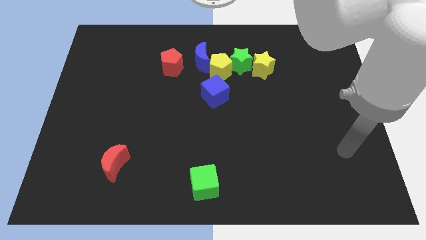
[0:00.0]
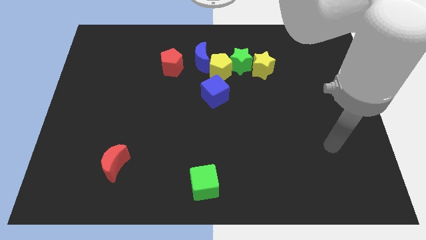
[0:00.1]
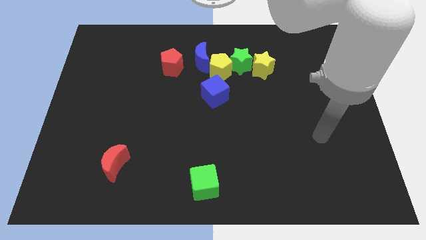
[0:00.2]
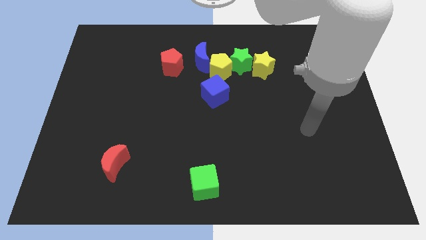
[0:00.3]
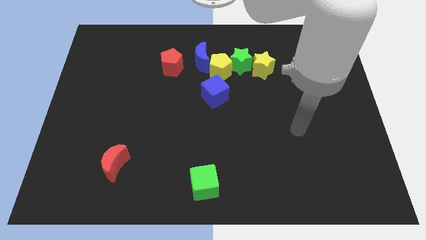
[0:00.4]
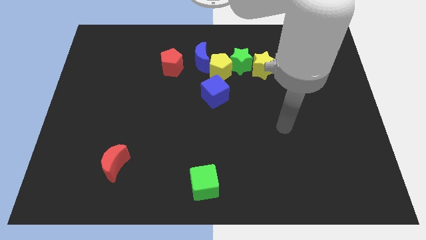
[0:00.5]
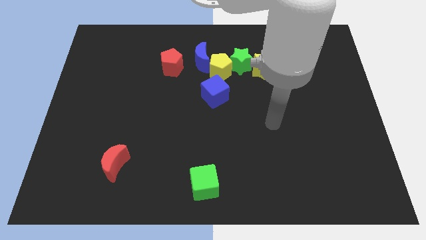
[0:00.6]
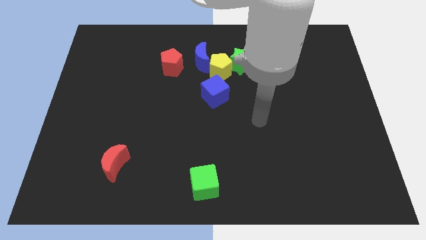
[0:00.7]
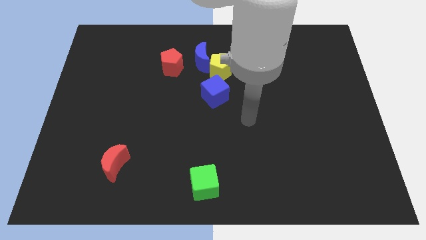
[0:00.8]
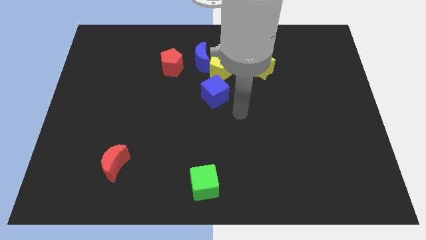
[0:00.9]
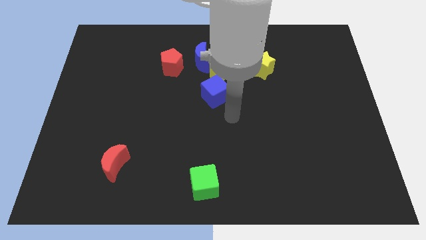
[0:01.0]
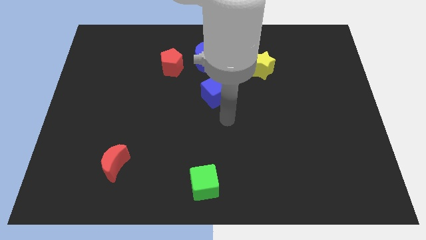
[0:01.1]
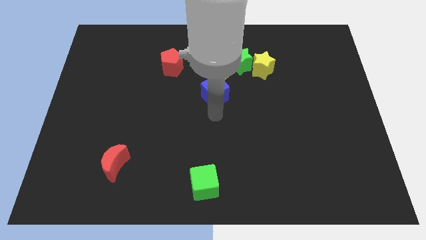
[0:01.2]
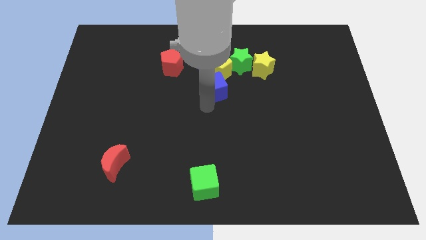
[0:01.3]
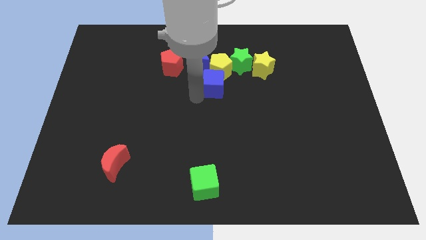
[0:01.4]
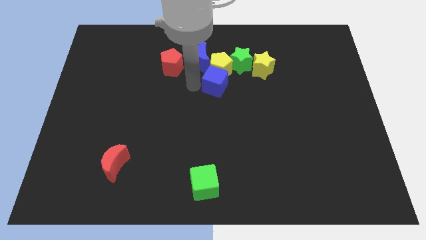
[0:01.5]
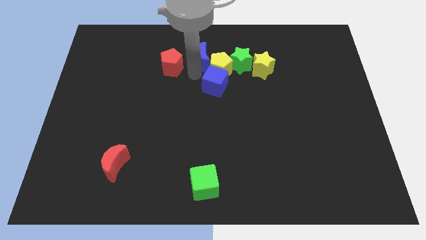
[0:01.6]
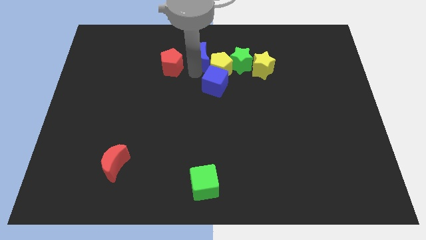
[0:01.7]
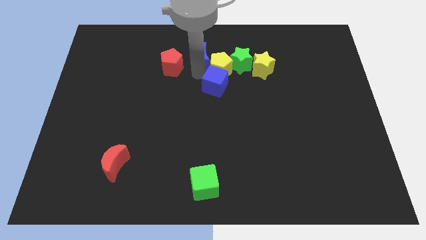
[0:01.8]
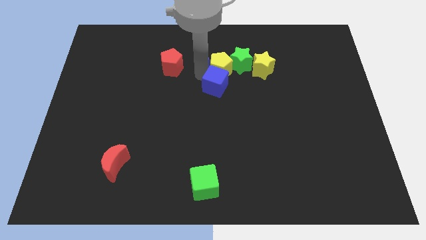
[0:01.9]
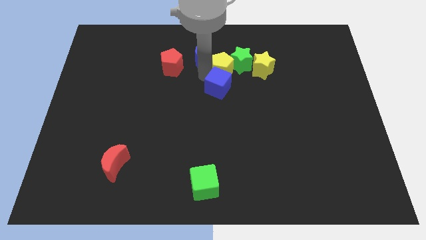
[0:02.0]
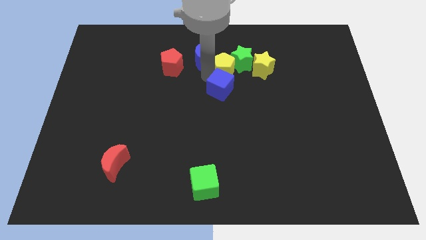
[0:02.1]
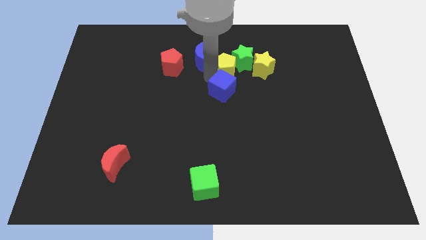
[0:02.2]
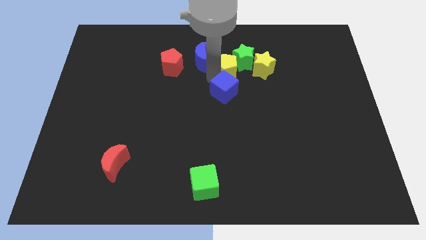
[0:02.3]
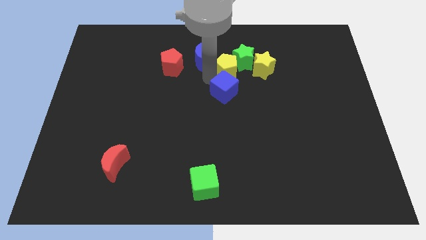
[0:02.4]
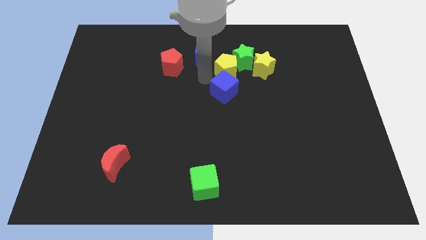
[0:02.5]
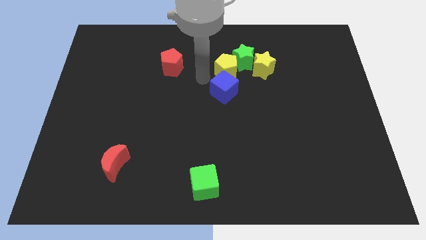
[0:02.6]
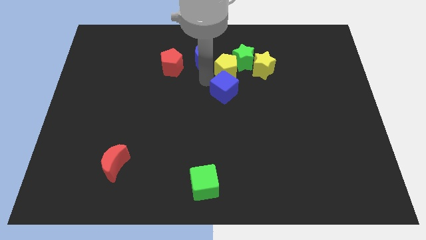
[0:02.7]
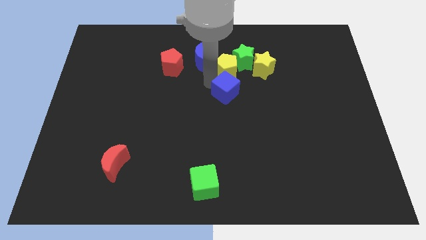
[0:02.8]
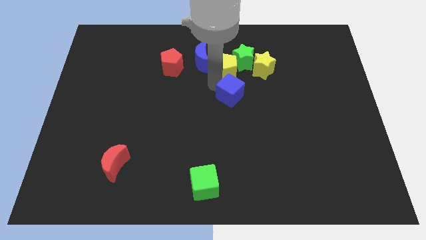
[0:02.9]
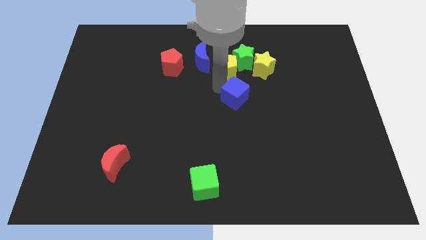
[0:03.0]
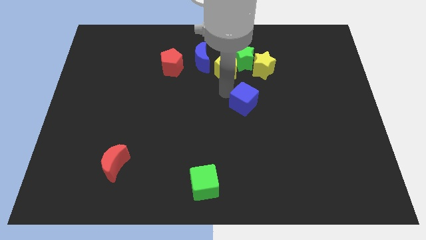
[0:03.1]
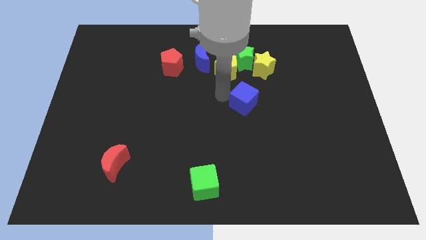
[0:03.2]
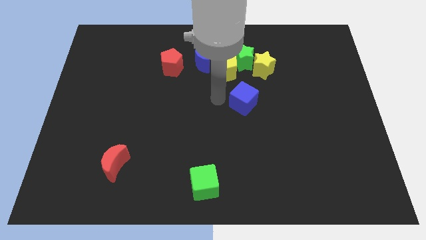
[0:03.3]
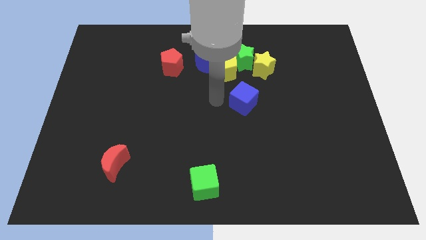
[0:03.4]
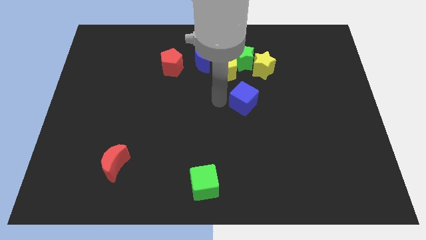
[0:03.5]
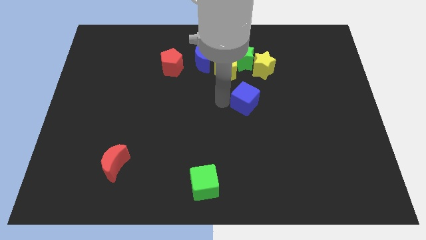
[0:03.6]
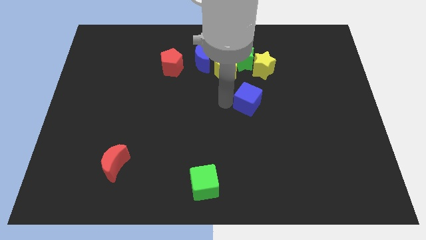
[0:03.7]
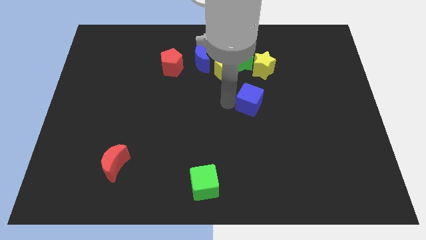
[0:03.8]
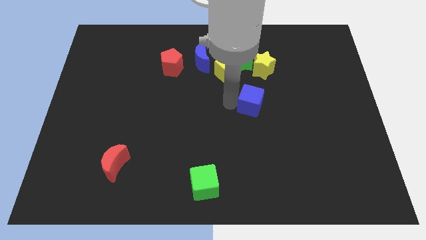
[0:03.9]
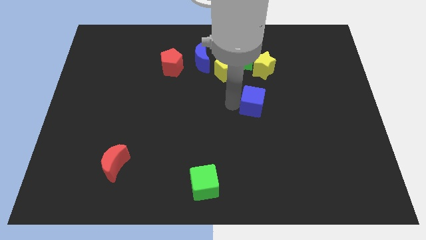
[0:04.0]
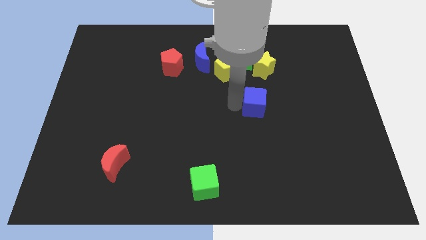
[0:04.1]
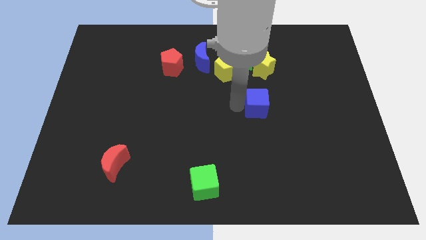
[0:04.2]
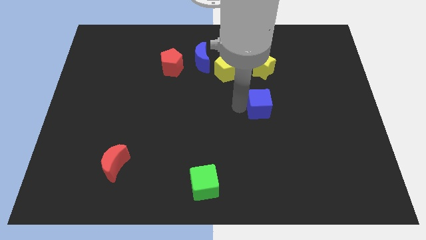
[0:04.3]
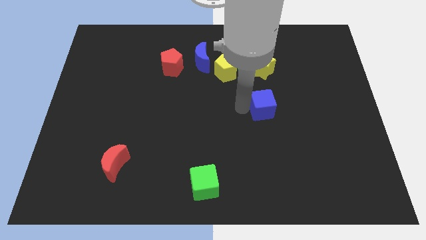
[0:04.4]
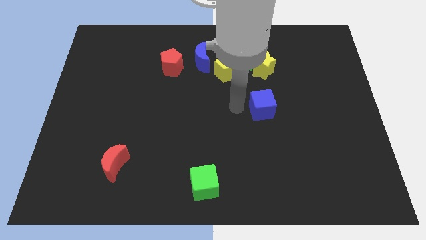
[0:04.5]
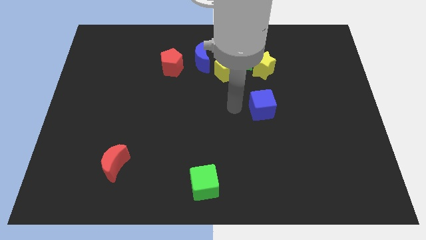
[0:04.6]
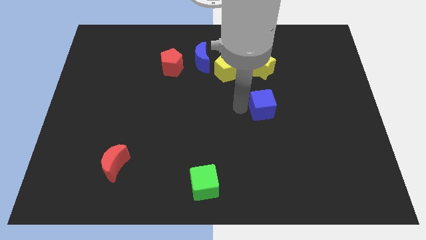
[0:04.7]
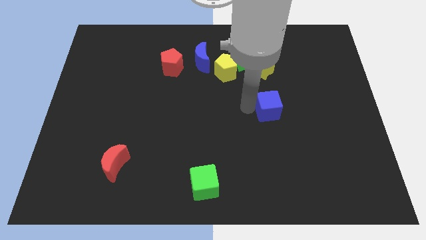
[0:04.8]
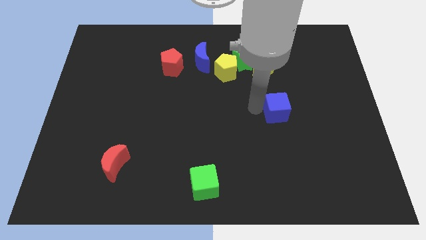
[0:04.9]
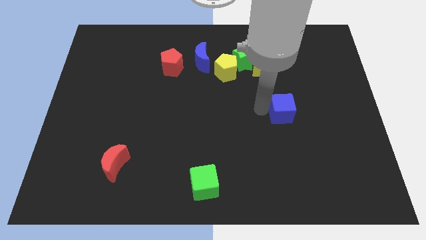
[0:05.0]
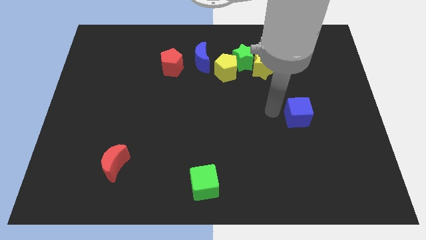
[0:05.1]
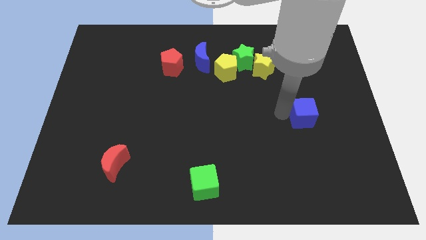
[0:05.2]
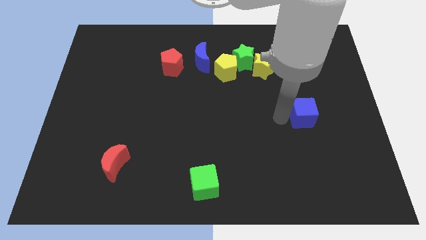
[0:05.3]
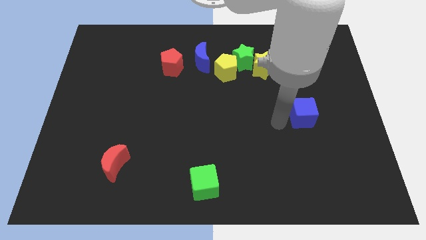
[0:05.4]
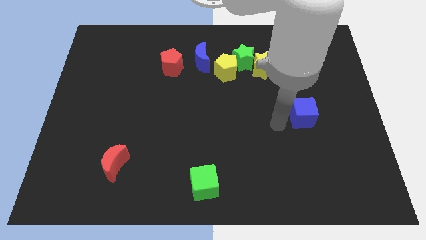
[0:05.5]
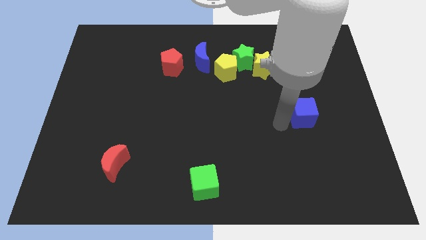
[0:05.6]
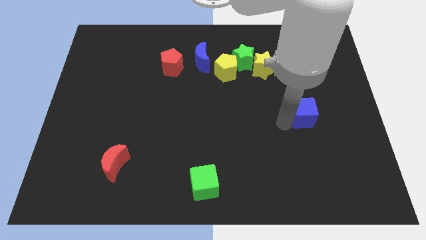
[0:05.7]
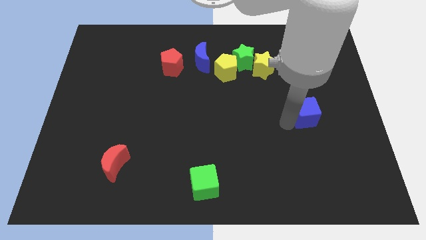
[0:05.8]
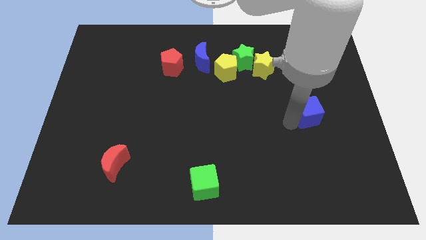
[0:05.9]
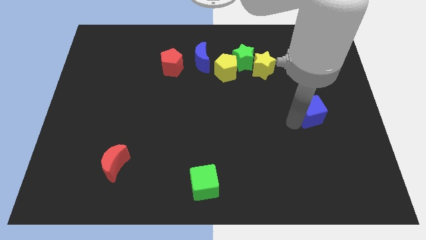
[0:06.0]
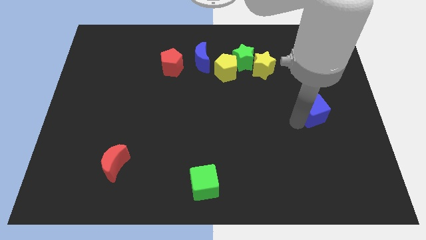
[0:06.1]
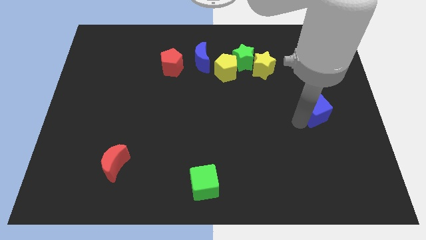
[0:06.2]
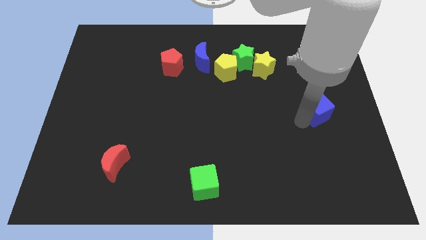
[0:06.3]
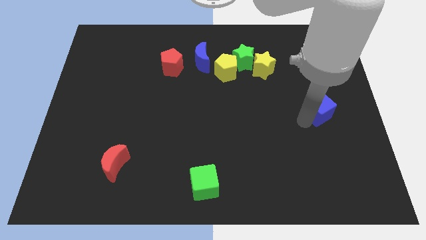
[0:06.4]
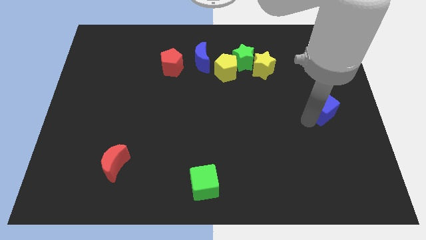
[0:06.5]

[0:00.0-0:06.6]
push the blue cube to the right side

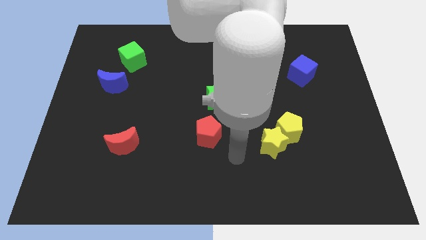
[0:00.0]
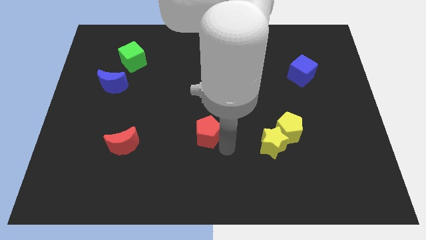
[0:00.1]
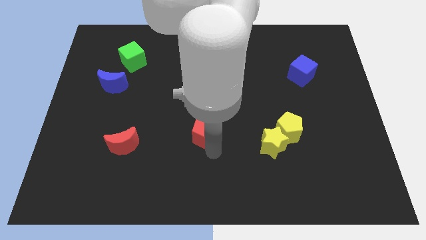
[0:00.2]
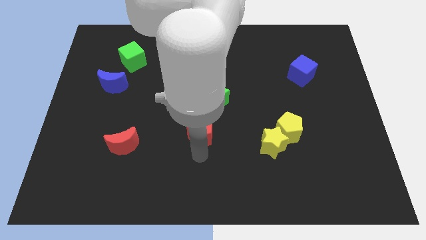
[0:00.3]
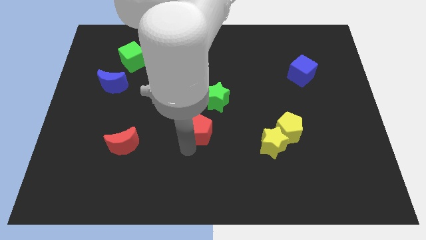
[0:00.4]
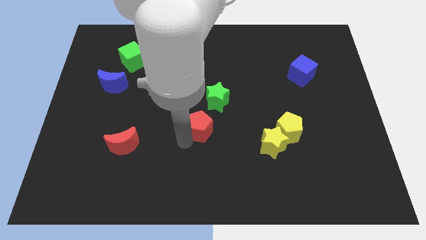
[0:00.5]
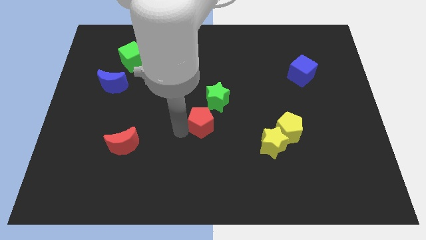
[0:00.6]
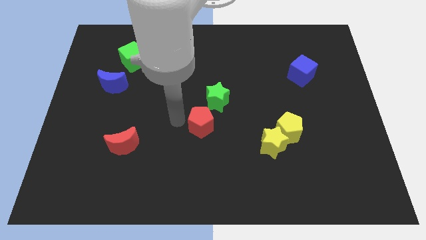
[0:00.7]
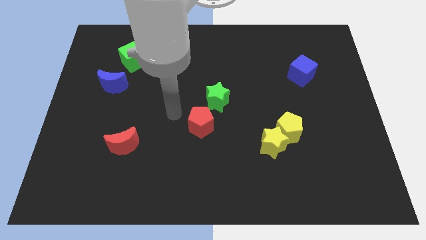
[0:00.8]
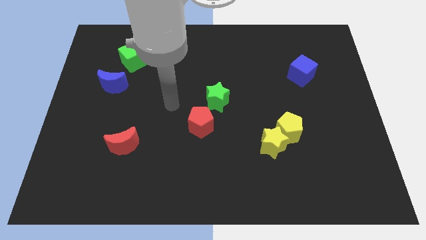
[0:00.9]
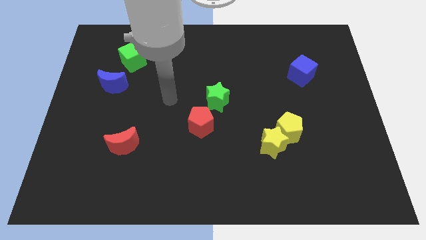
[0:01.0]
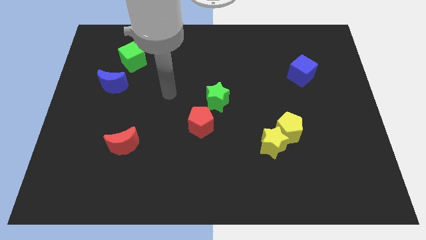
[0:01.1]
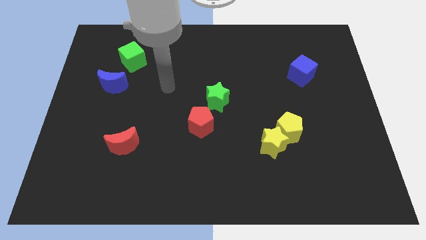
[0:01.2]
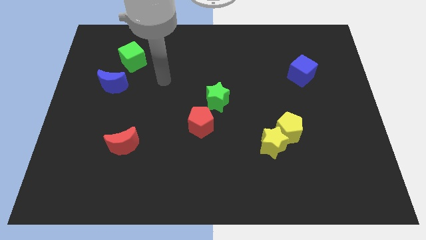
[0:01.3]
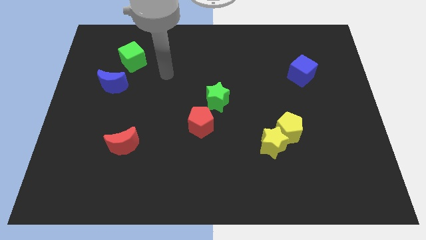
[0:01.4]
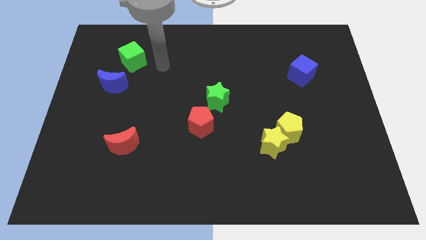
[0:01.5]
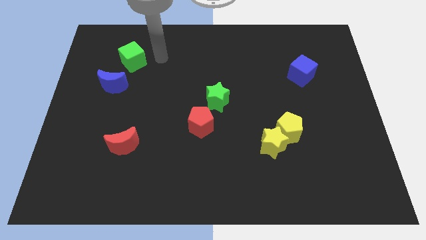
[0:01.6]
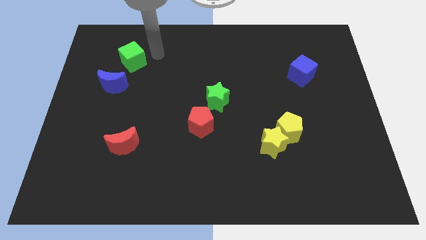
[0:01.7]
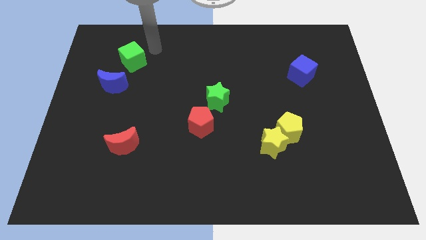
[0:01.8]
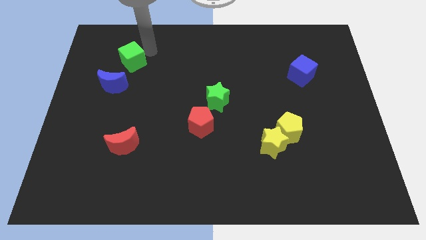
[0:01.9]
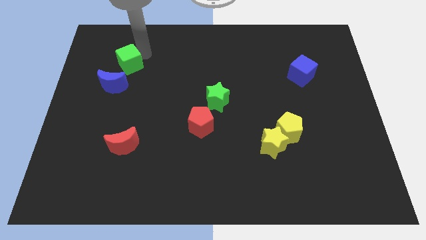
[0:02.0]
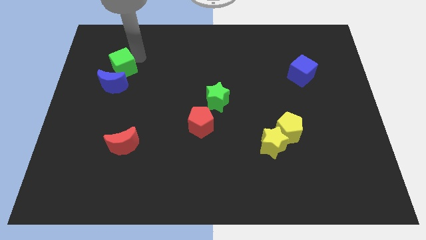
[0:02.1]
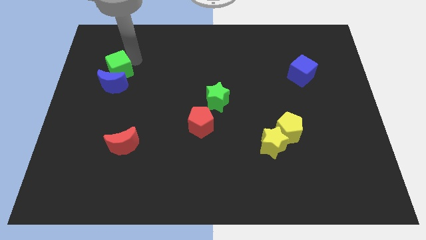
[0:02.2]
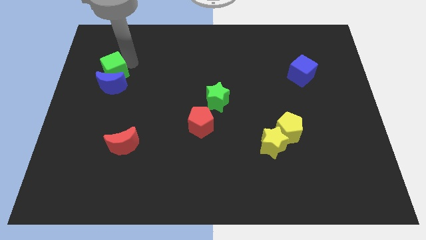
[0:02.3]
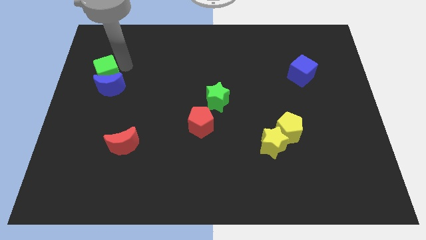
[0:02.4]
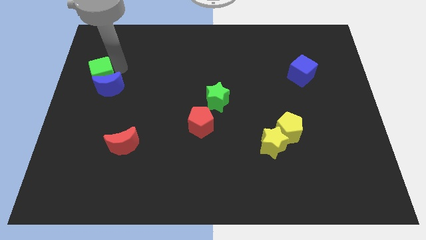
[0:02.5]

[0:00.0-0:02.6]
push the green cube to the left side of the board
